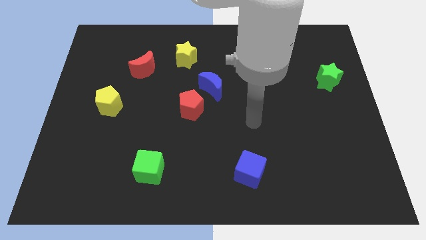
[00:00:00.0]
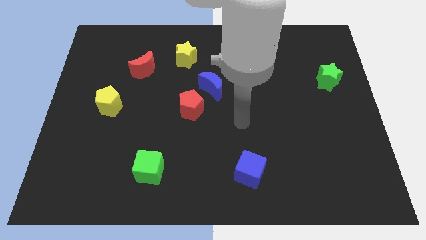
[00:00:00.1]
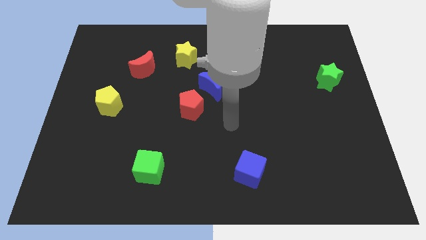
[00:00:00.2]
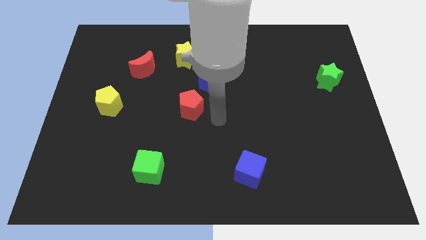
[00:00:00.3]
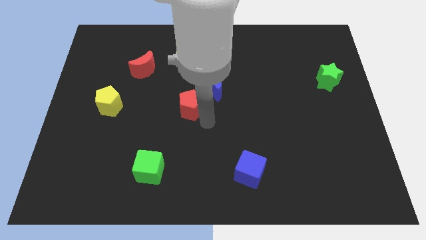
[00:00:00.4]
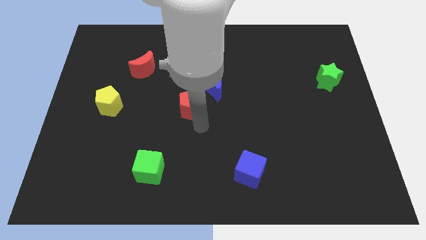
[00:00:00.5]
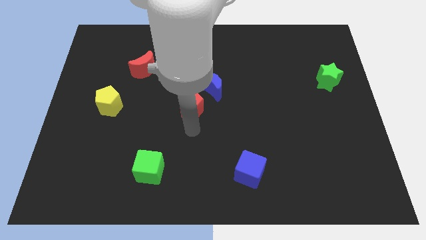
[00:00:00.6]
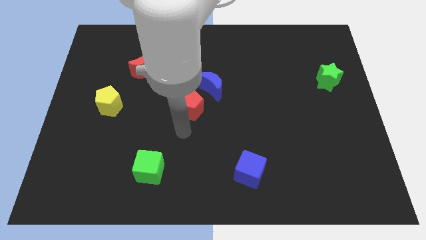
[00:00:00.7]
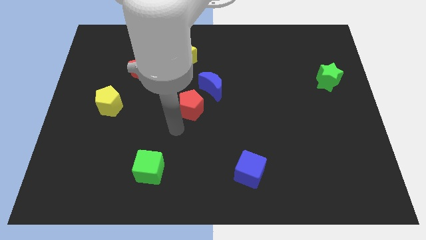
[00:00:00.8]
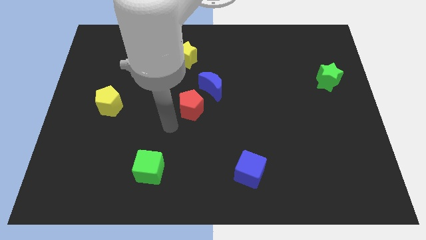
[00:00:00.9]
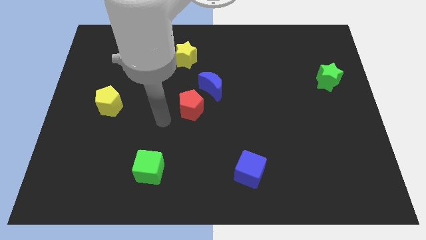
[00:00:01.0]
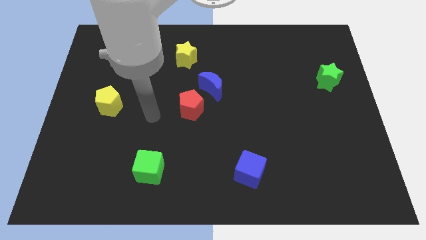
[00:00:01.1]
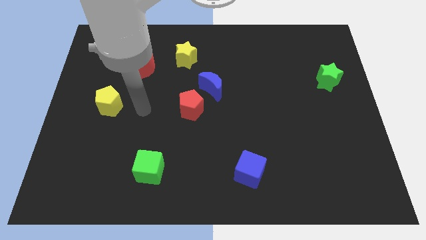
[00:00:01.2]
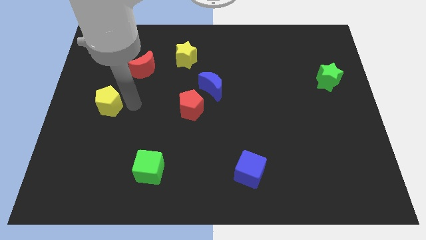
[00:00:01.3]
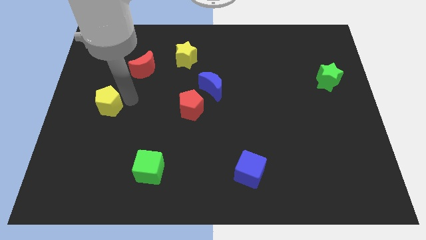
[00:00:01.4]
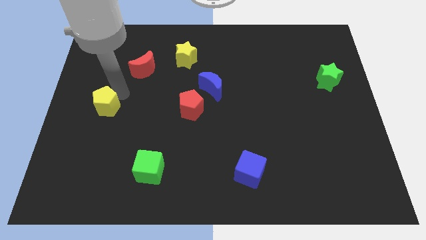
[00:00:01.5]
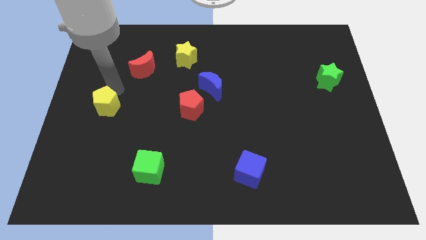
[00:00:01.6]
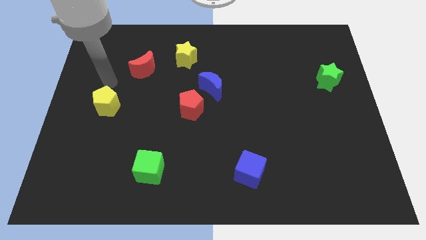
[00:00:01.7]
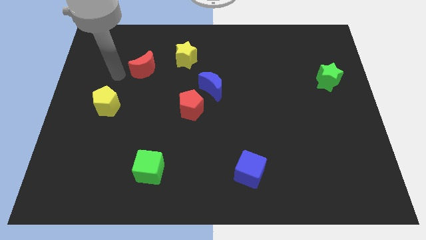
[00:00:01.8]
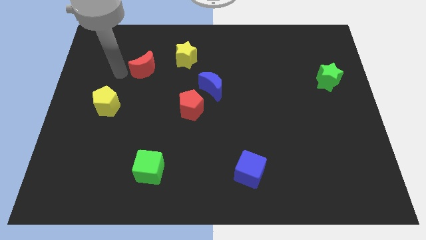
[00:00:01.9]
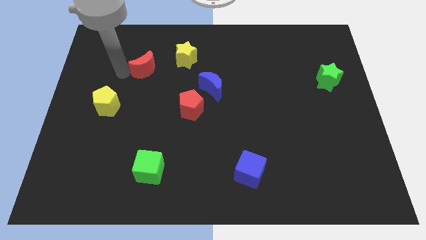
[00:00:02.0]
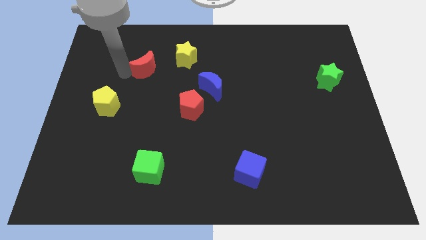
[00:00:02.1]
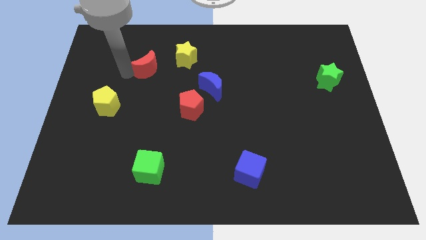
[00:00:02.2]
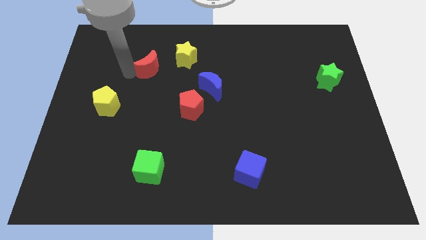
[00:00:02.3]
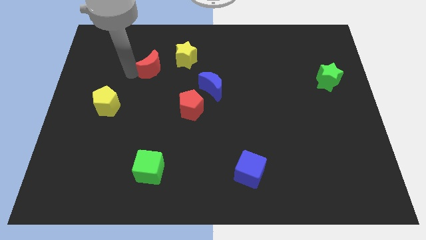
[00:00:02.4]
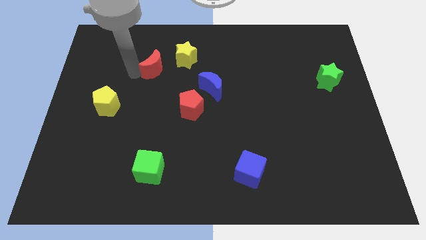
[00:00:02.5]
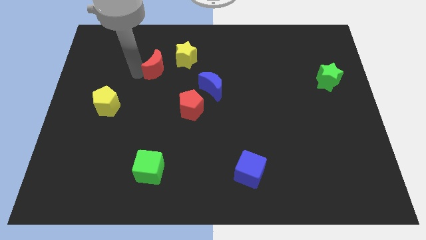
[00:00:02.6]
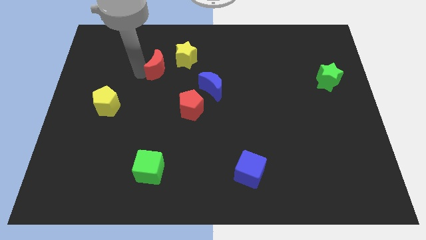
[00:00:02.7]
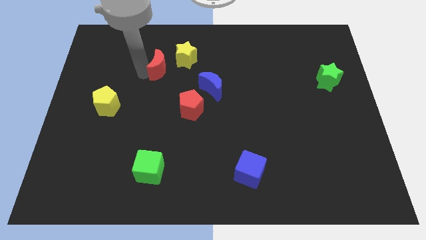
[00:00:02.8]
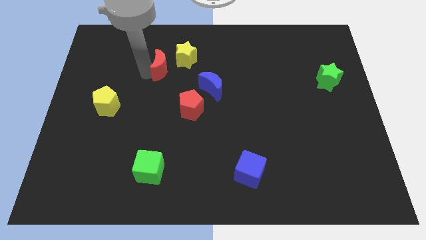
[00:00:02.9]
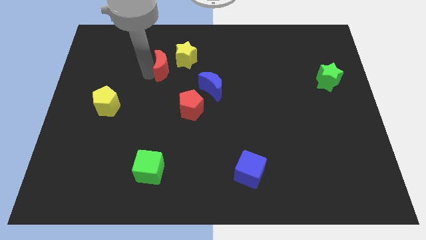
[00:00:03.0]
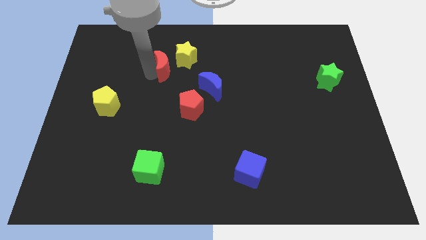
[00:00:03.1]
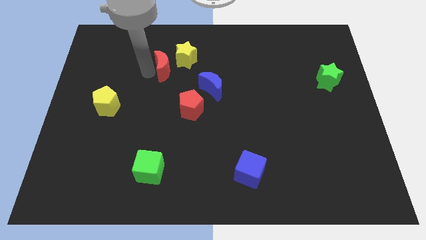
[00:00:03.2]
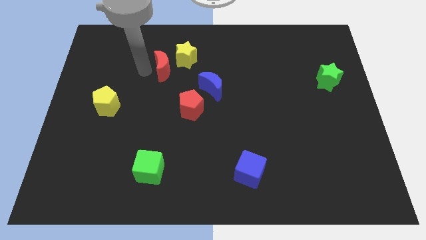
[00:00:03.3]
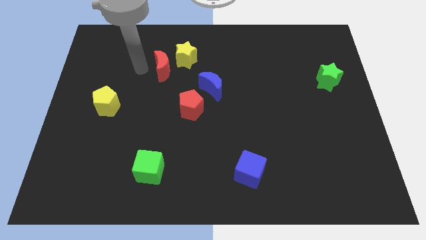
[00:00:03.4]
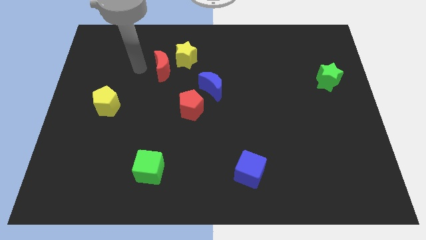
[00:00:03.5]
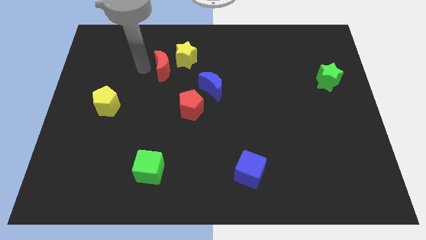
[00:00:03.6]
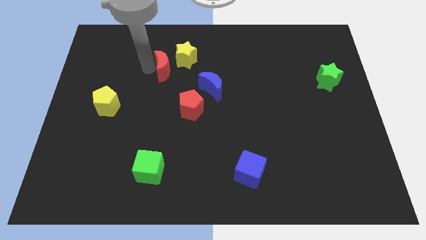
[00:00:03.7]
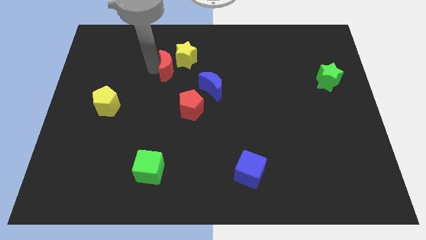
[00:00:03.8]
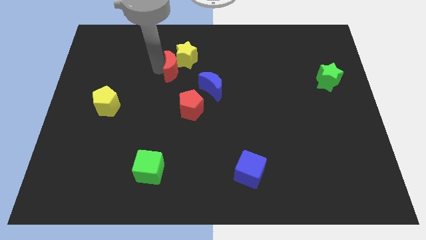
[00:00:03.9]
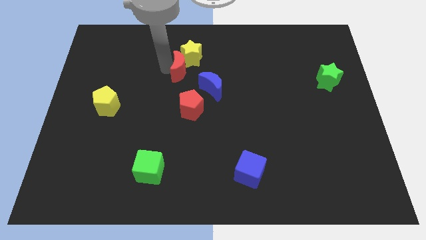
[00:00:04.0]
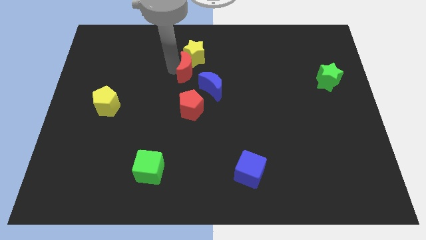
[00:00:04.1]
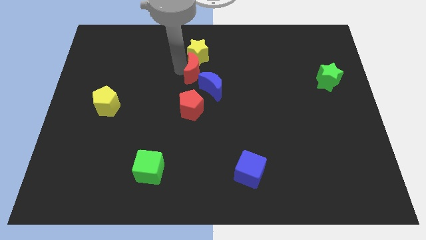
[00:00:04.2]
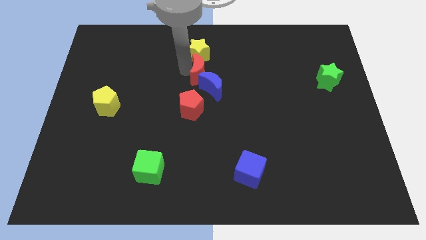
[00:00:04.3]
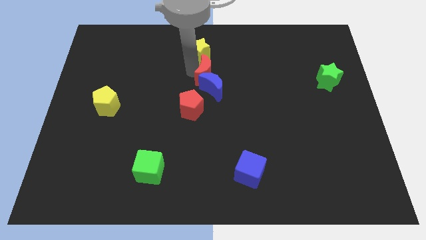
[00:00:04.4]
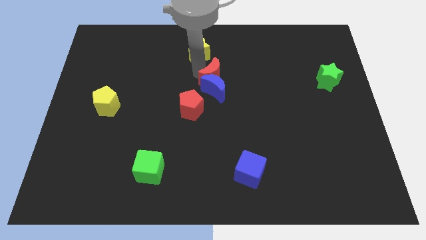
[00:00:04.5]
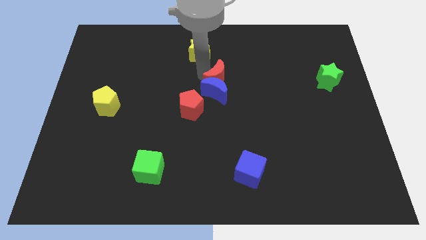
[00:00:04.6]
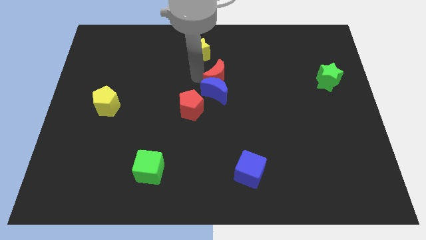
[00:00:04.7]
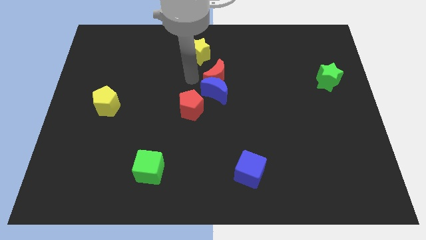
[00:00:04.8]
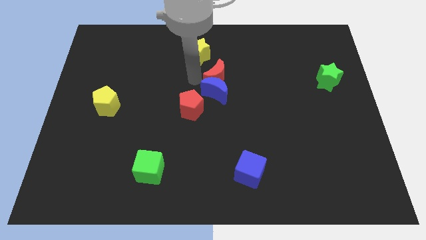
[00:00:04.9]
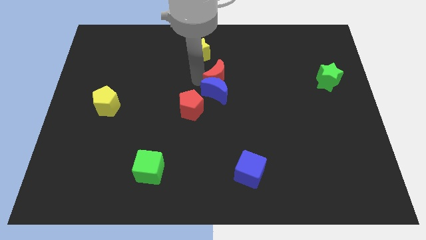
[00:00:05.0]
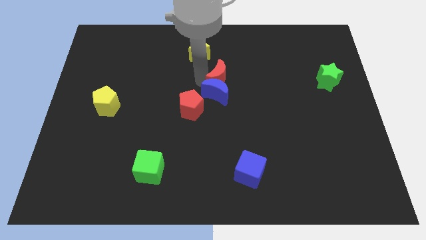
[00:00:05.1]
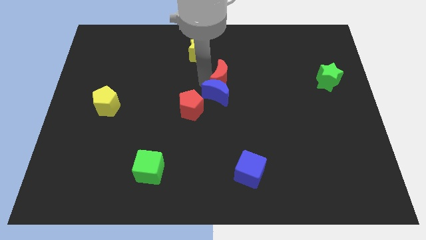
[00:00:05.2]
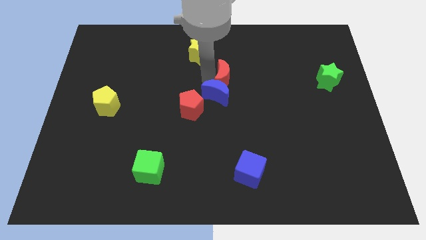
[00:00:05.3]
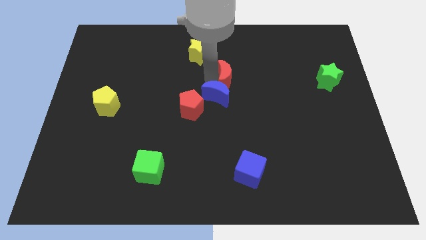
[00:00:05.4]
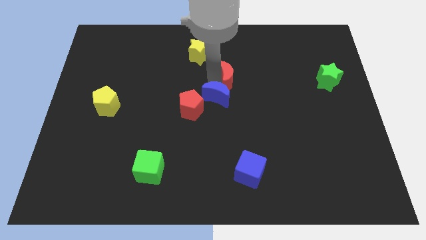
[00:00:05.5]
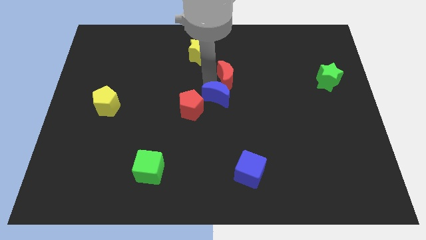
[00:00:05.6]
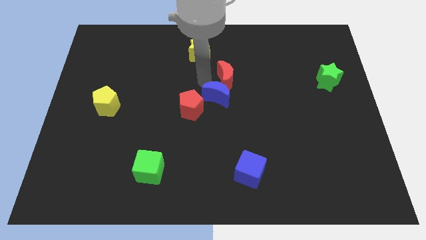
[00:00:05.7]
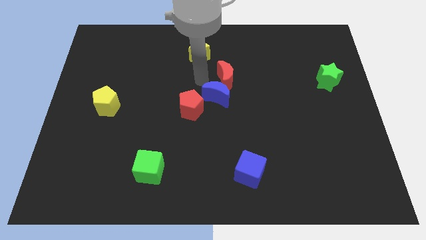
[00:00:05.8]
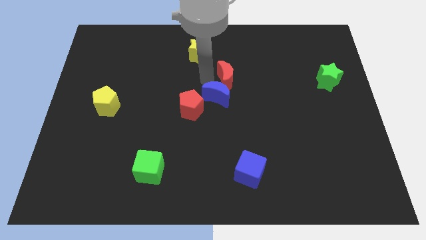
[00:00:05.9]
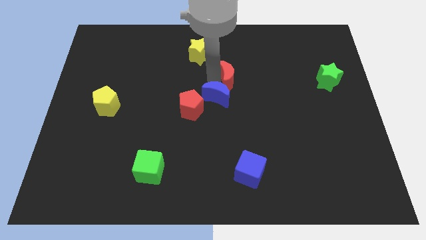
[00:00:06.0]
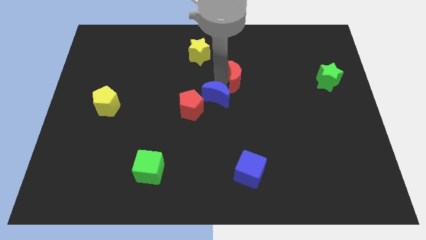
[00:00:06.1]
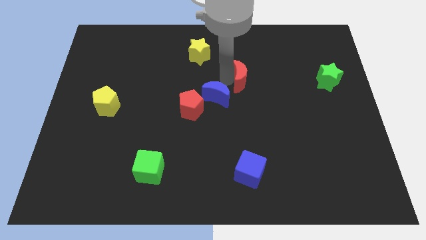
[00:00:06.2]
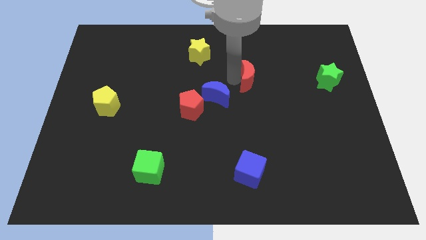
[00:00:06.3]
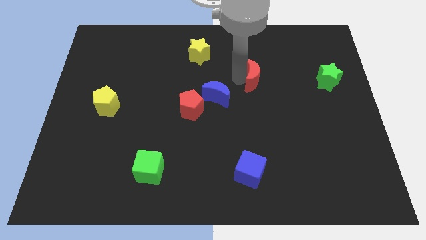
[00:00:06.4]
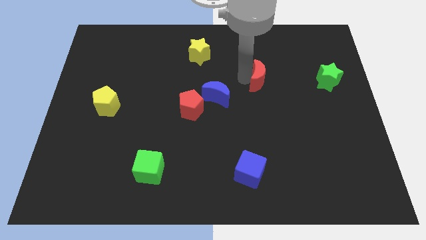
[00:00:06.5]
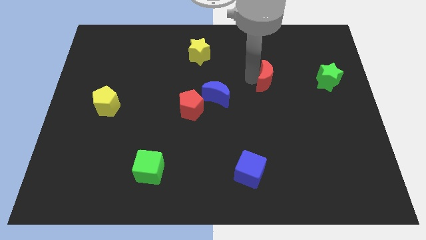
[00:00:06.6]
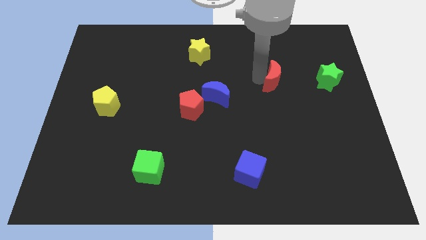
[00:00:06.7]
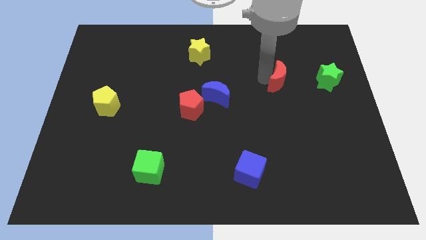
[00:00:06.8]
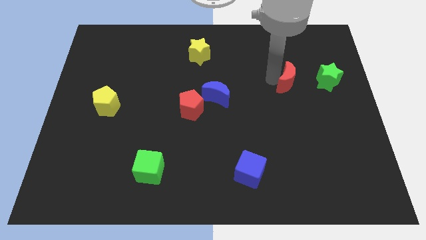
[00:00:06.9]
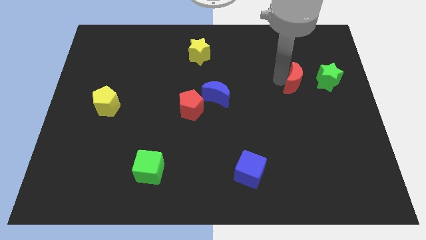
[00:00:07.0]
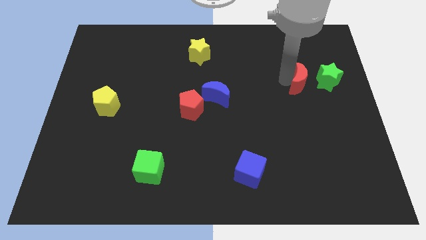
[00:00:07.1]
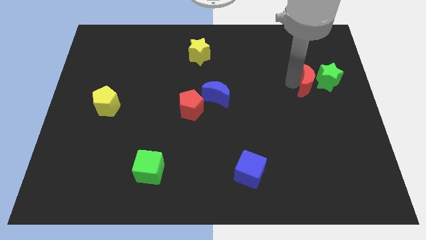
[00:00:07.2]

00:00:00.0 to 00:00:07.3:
slide the red moon towards the green star
